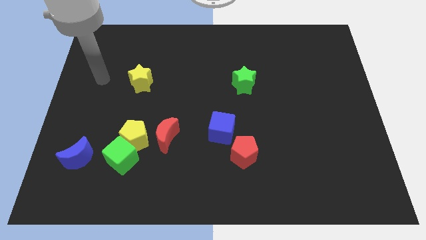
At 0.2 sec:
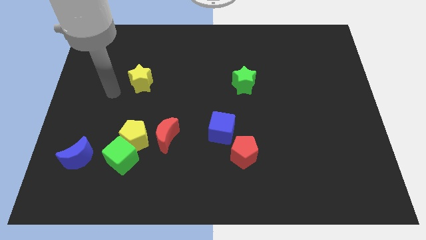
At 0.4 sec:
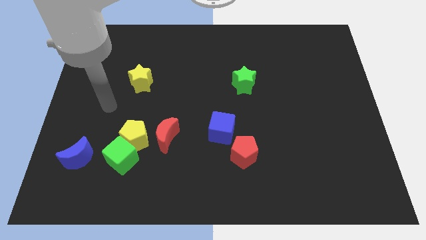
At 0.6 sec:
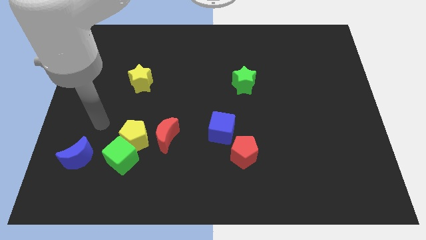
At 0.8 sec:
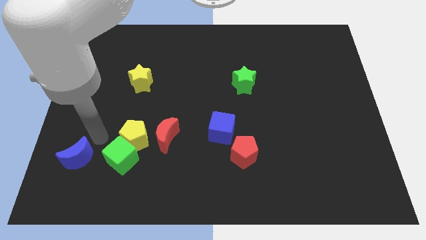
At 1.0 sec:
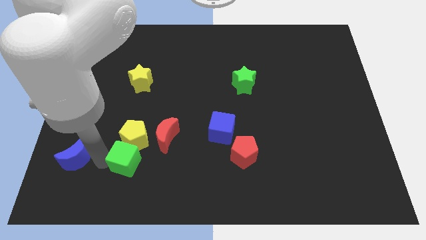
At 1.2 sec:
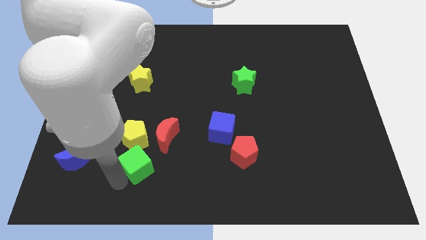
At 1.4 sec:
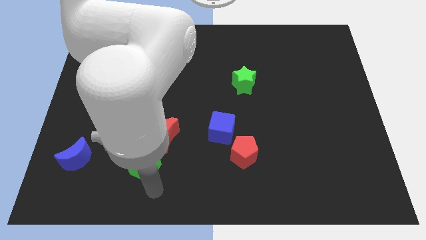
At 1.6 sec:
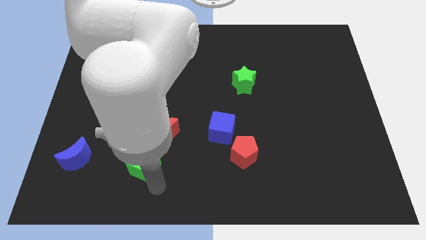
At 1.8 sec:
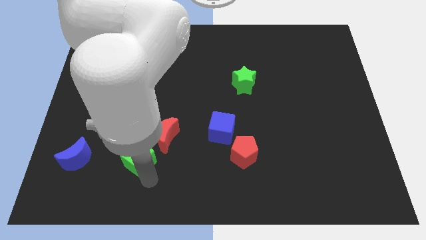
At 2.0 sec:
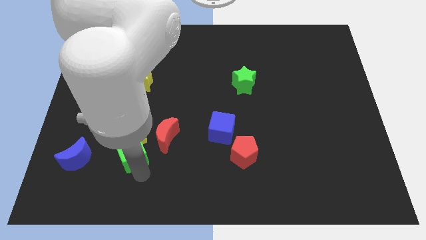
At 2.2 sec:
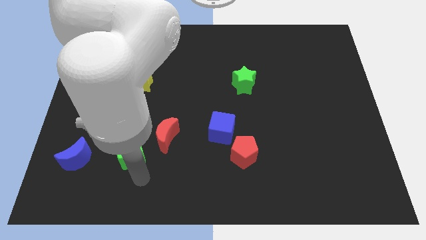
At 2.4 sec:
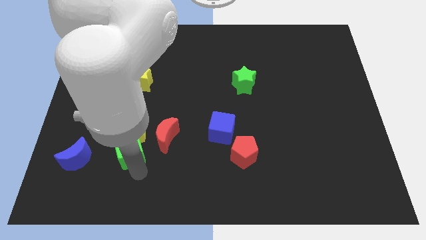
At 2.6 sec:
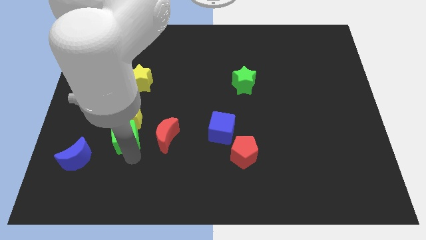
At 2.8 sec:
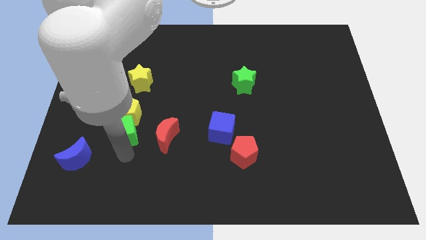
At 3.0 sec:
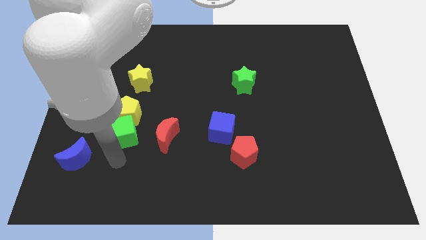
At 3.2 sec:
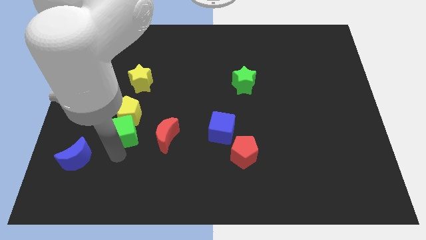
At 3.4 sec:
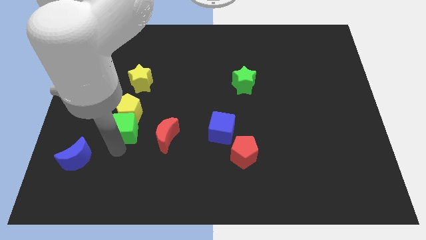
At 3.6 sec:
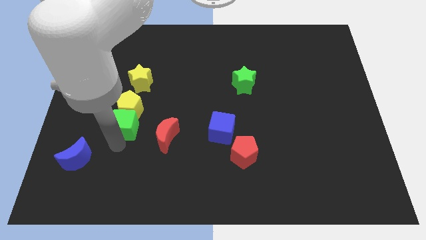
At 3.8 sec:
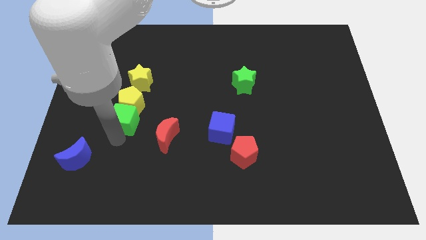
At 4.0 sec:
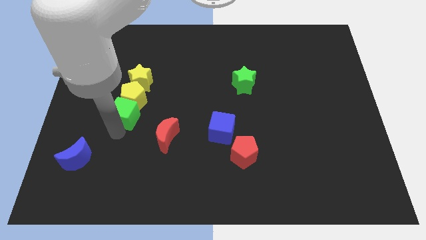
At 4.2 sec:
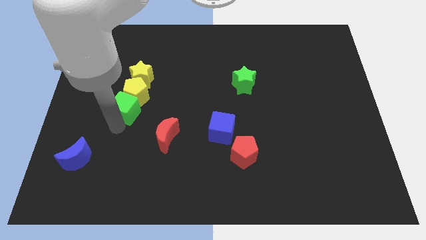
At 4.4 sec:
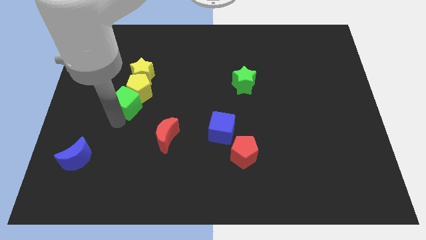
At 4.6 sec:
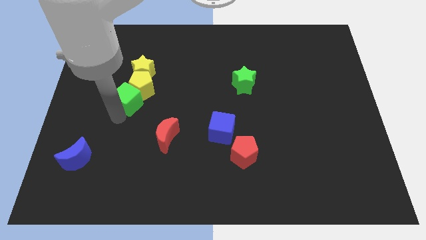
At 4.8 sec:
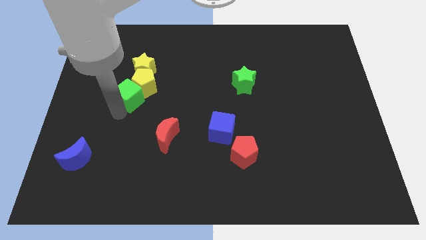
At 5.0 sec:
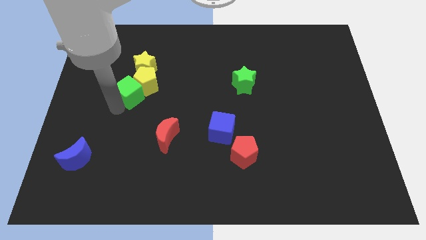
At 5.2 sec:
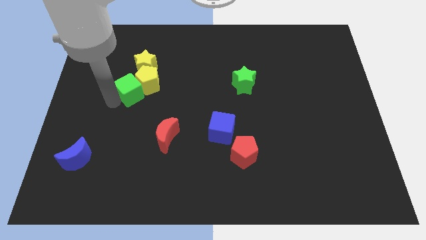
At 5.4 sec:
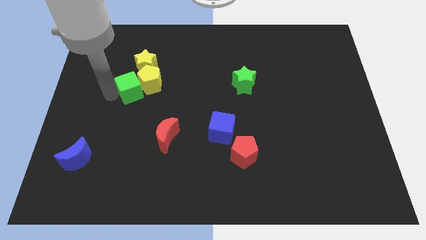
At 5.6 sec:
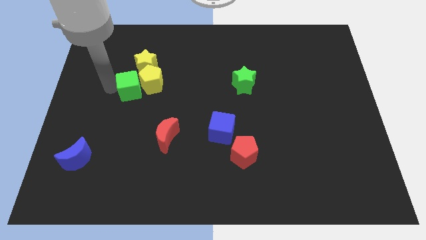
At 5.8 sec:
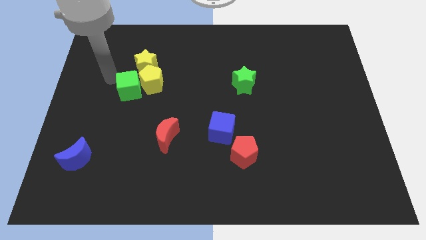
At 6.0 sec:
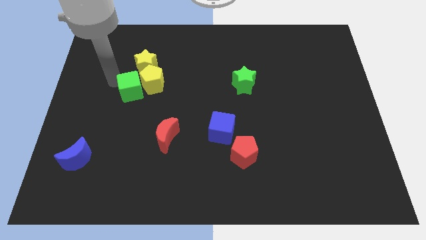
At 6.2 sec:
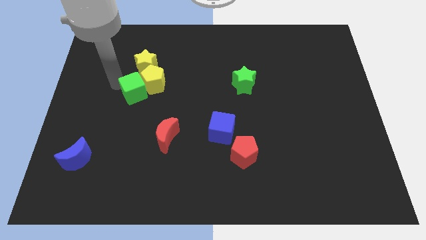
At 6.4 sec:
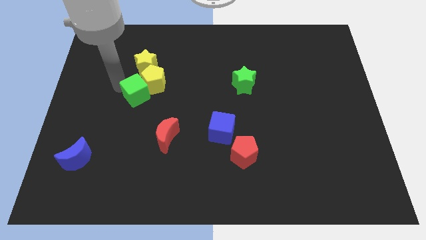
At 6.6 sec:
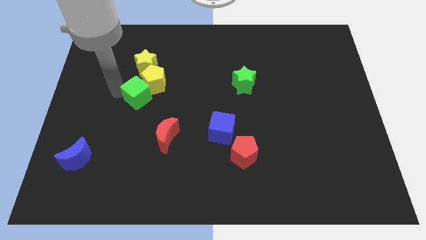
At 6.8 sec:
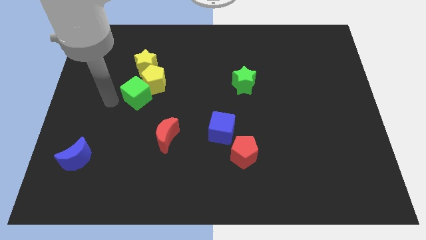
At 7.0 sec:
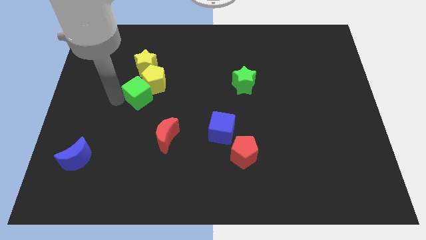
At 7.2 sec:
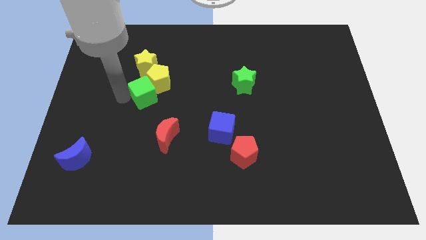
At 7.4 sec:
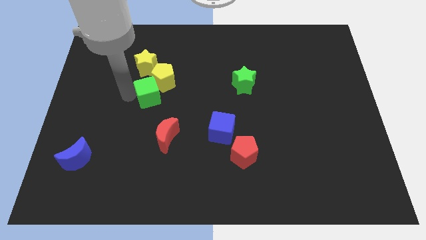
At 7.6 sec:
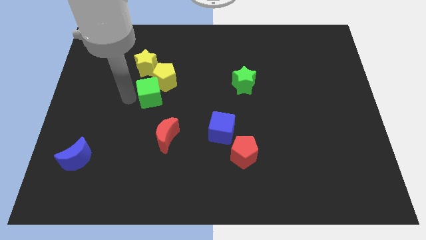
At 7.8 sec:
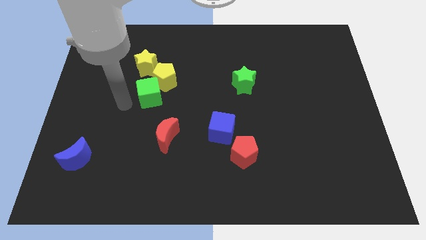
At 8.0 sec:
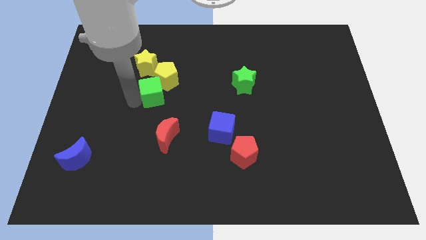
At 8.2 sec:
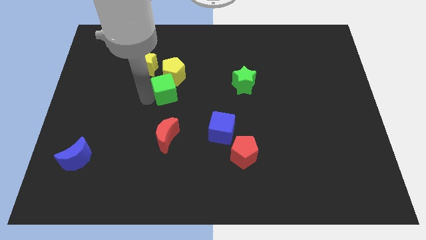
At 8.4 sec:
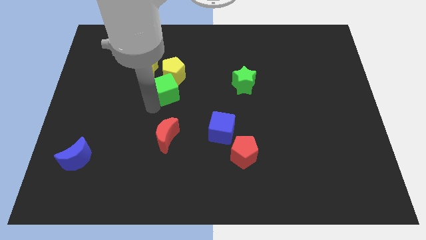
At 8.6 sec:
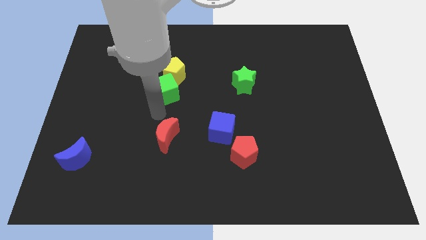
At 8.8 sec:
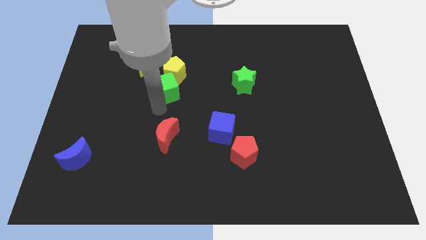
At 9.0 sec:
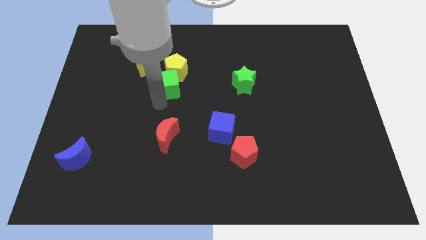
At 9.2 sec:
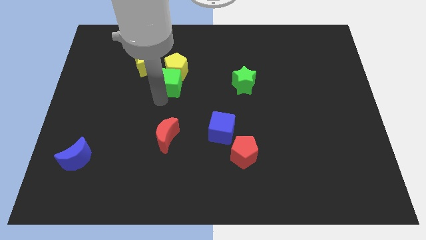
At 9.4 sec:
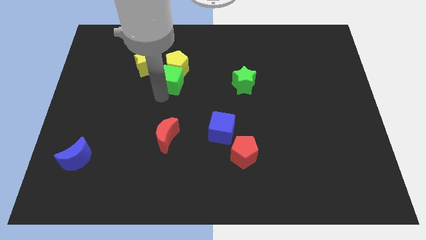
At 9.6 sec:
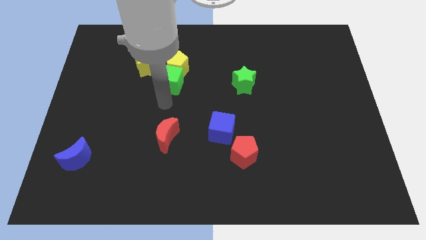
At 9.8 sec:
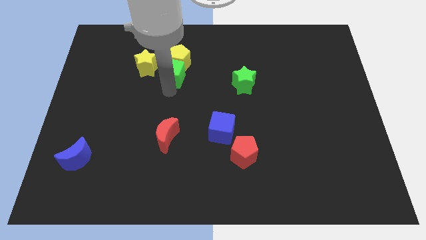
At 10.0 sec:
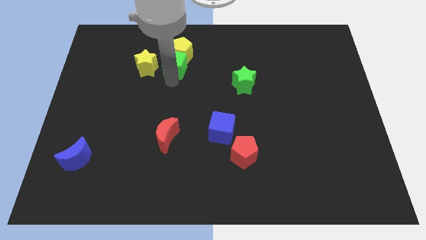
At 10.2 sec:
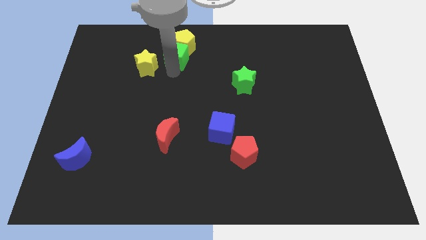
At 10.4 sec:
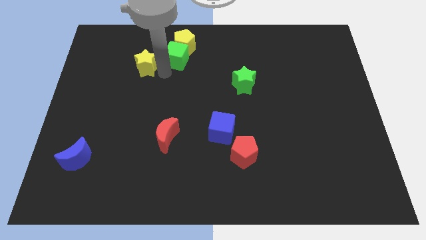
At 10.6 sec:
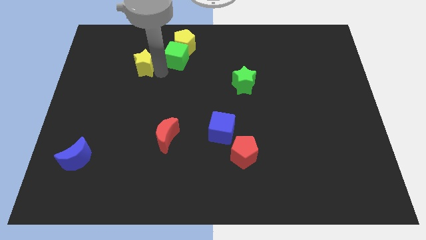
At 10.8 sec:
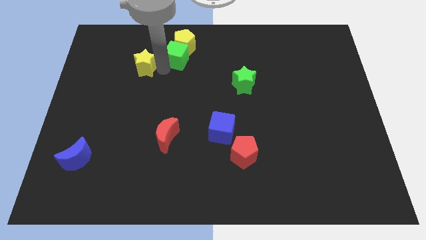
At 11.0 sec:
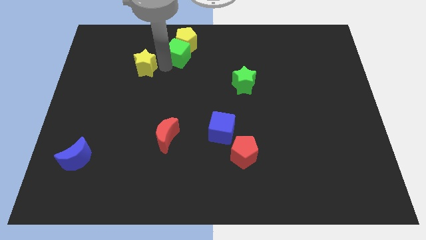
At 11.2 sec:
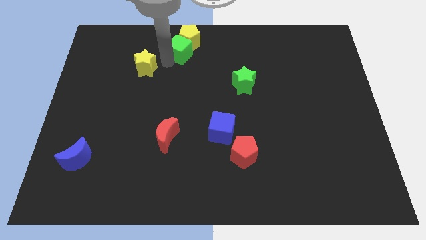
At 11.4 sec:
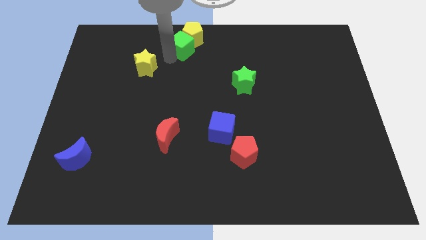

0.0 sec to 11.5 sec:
move the green cube to the towards your base
